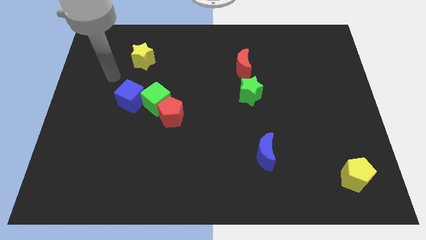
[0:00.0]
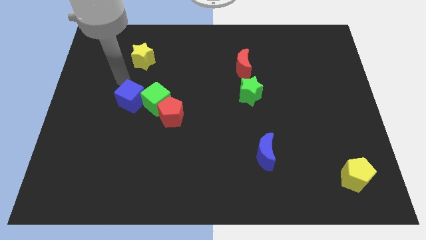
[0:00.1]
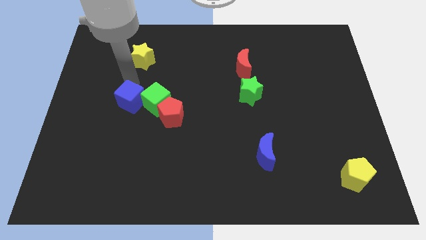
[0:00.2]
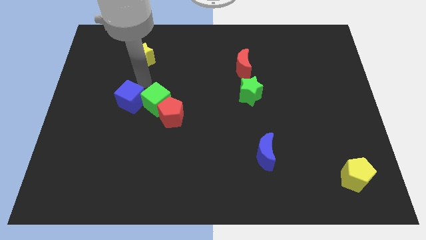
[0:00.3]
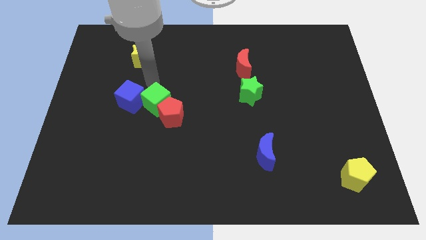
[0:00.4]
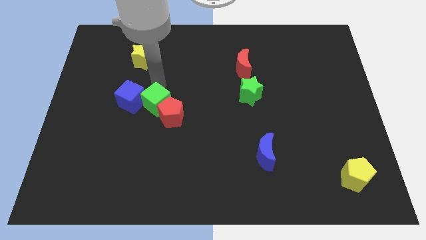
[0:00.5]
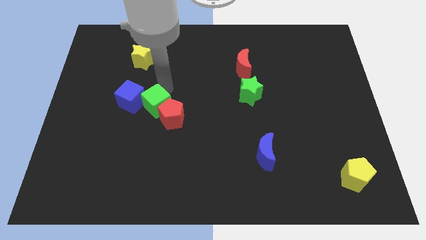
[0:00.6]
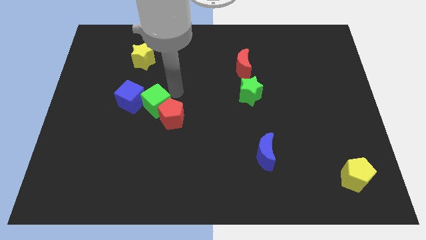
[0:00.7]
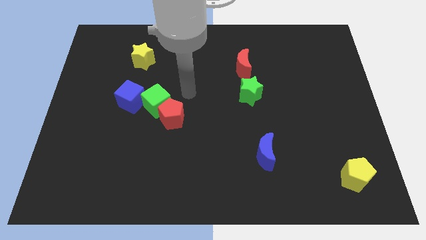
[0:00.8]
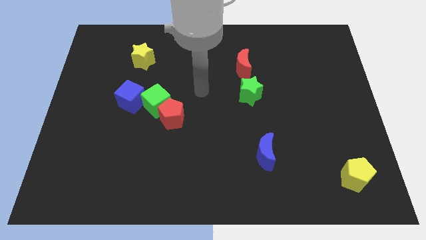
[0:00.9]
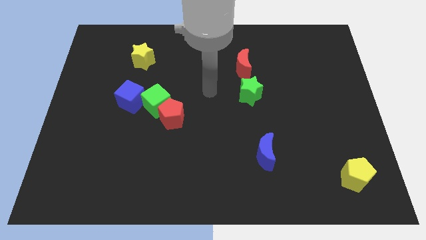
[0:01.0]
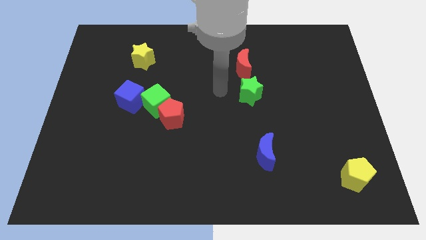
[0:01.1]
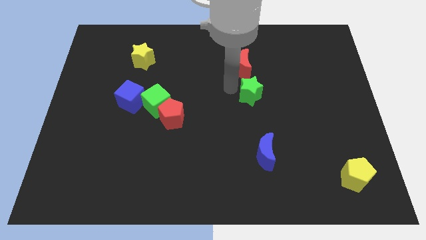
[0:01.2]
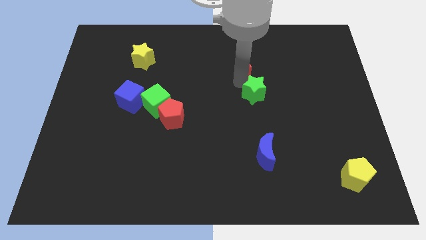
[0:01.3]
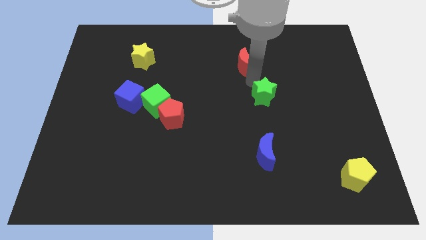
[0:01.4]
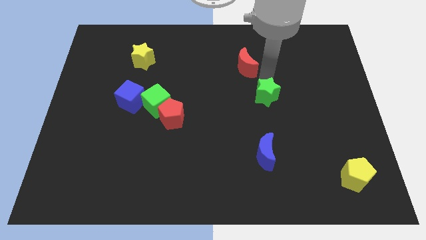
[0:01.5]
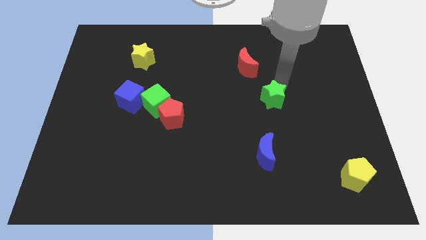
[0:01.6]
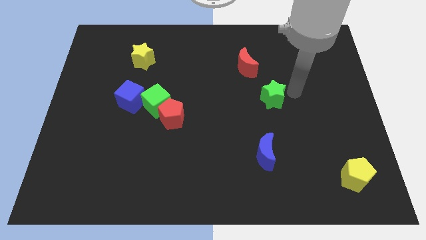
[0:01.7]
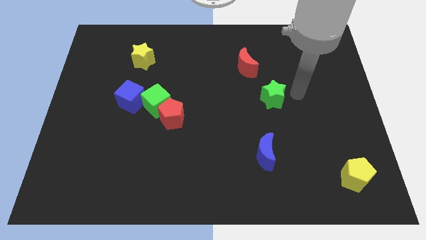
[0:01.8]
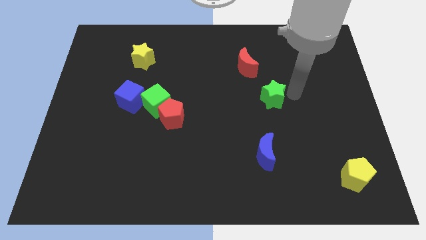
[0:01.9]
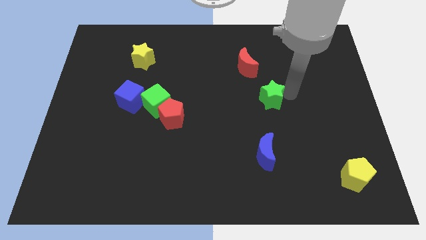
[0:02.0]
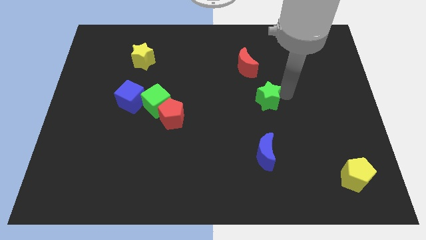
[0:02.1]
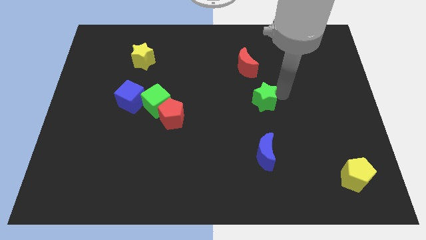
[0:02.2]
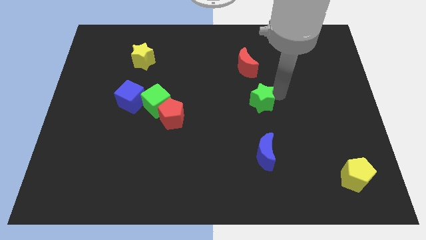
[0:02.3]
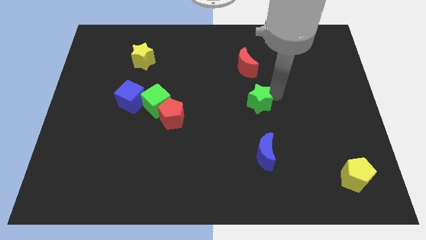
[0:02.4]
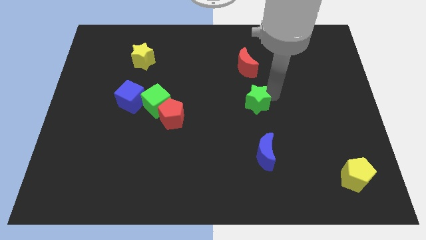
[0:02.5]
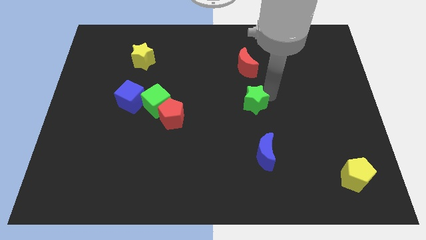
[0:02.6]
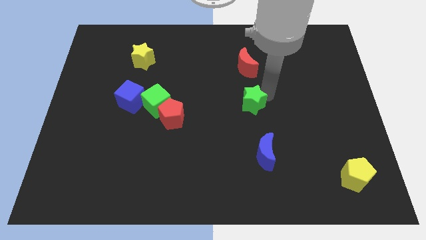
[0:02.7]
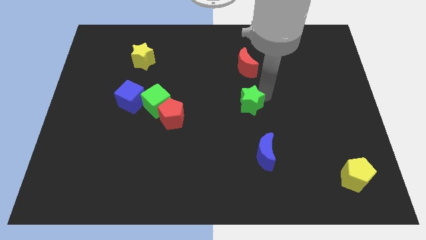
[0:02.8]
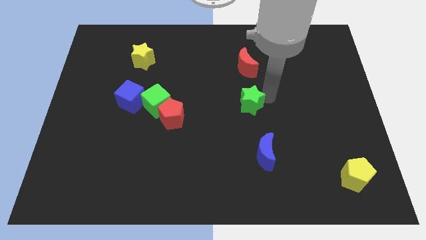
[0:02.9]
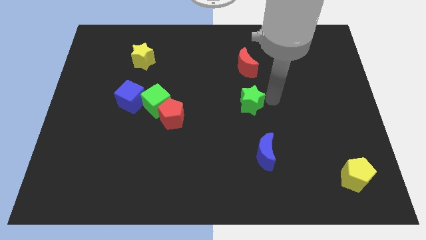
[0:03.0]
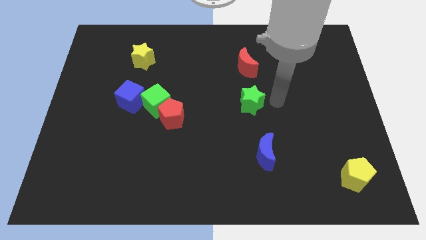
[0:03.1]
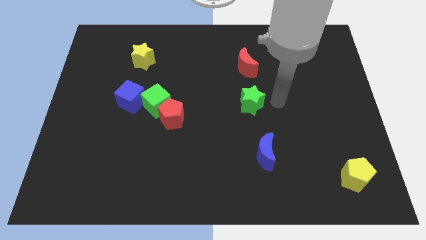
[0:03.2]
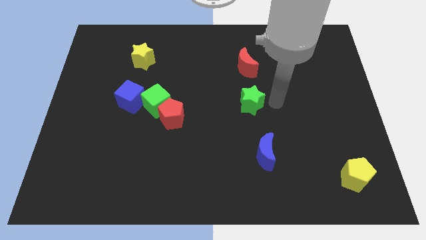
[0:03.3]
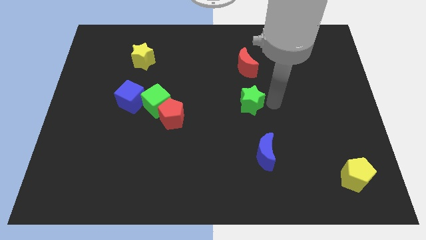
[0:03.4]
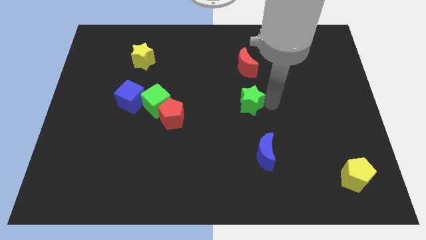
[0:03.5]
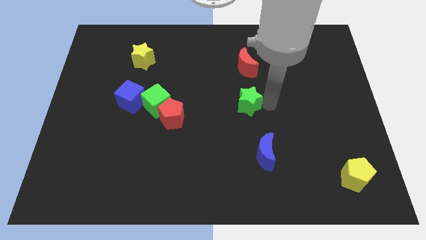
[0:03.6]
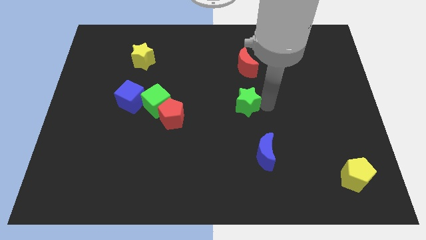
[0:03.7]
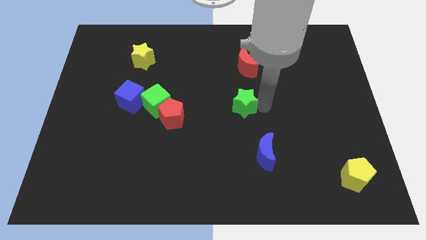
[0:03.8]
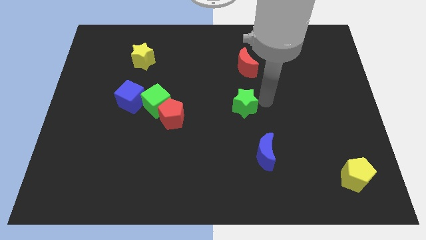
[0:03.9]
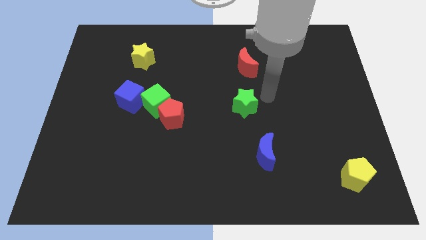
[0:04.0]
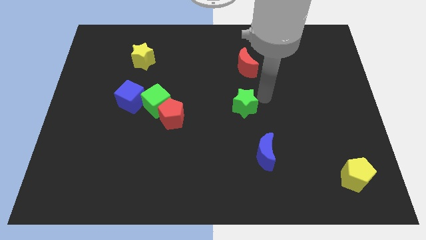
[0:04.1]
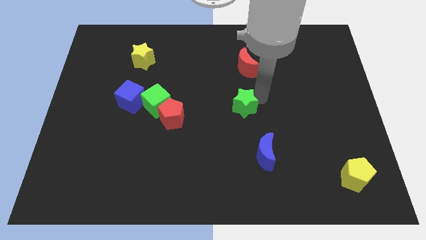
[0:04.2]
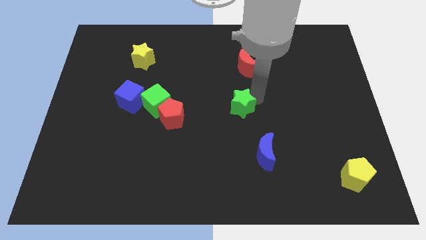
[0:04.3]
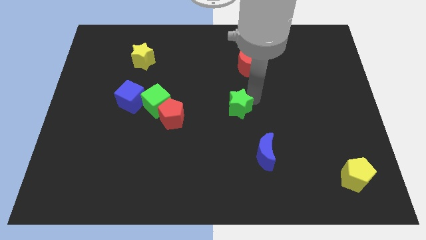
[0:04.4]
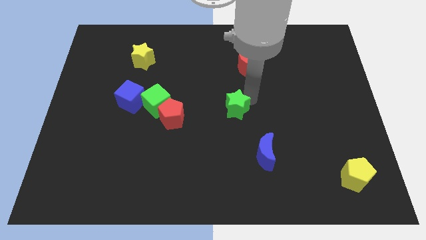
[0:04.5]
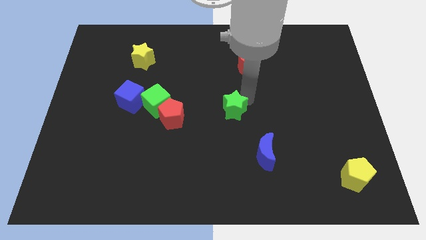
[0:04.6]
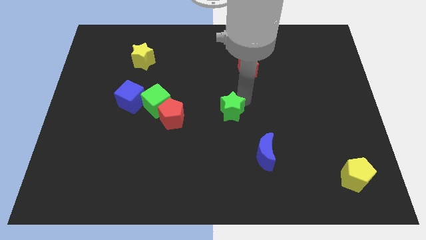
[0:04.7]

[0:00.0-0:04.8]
slide the green star down and then to the left a little

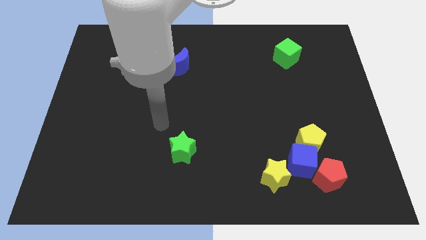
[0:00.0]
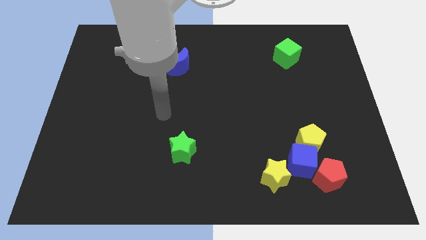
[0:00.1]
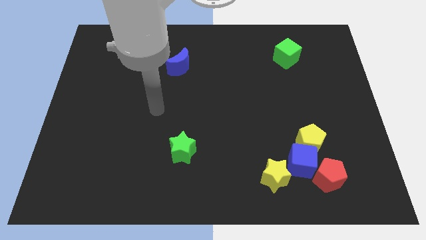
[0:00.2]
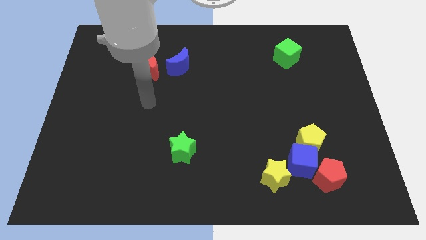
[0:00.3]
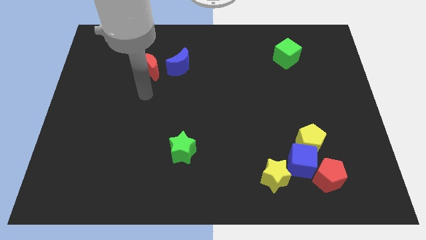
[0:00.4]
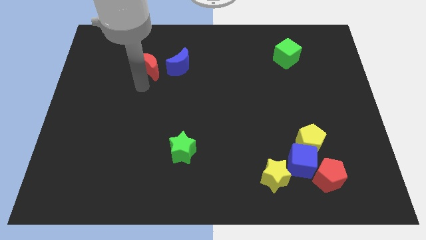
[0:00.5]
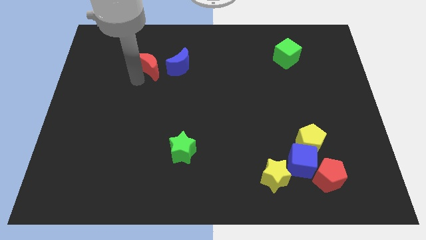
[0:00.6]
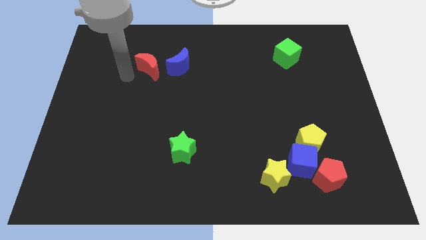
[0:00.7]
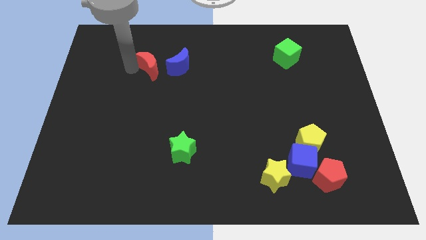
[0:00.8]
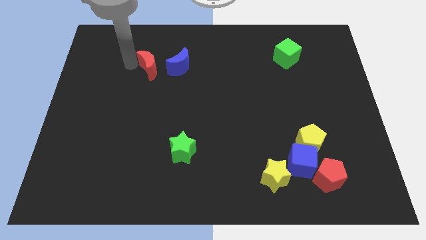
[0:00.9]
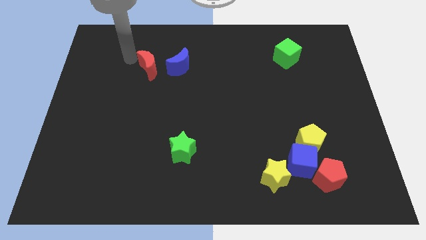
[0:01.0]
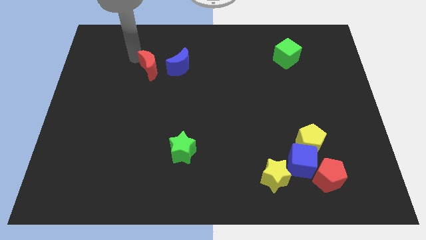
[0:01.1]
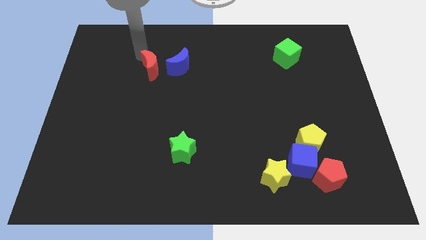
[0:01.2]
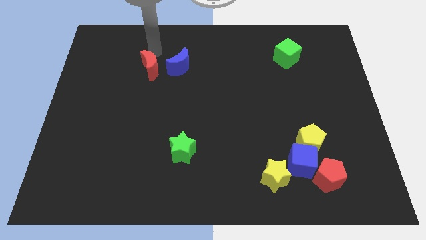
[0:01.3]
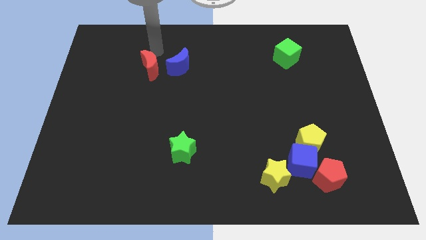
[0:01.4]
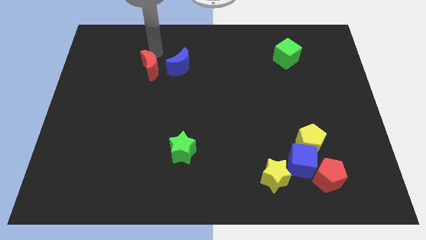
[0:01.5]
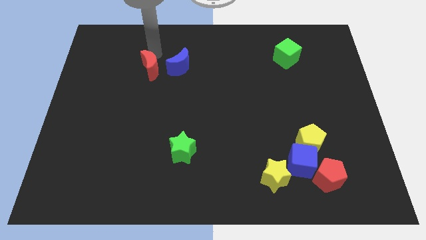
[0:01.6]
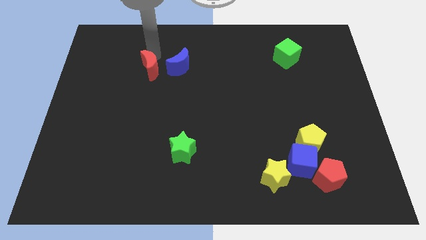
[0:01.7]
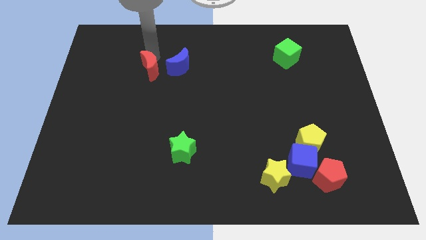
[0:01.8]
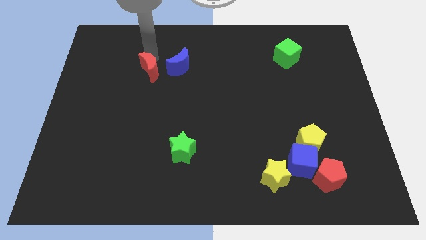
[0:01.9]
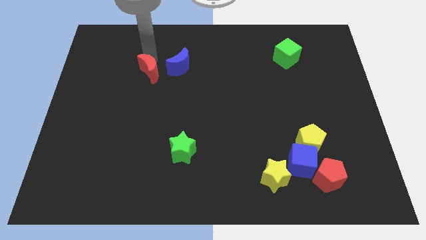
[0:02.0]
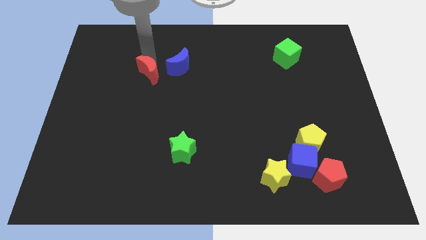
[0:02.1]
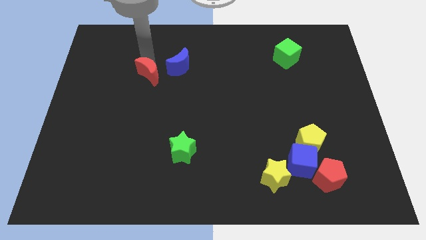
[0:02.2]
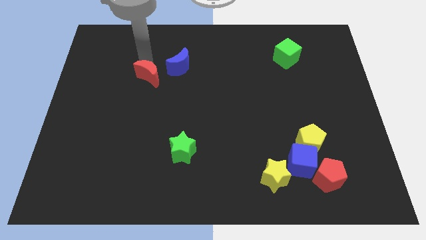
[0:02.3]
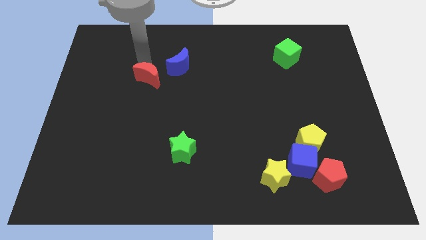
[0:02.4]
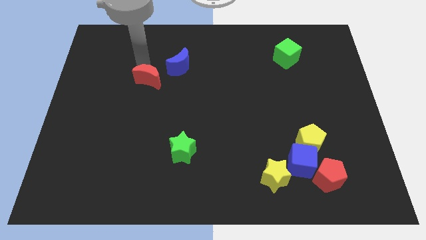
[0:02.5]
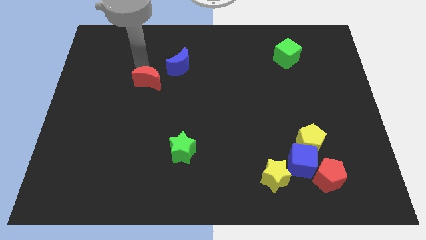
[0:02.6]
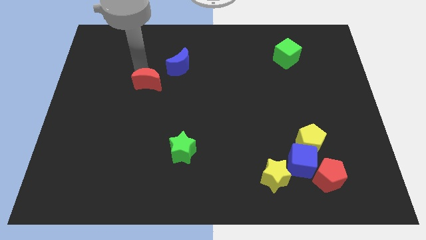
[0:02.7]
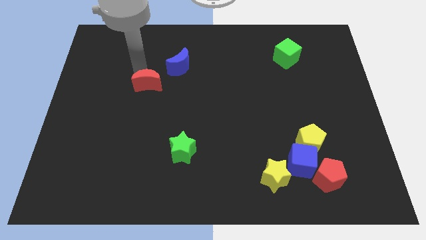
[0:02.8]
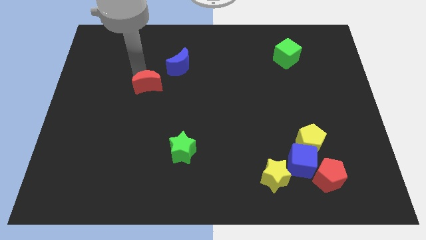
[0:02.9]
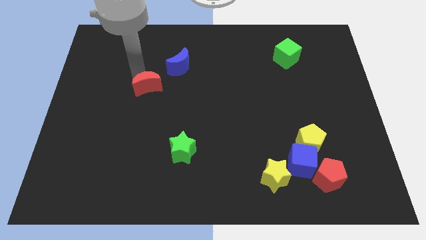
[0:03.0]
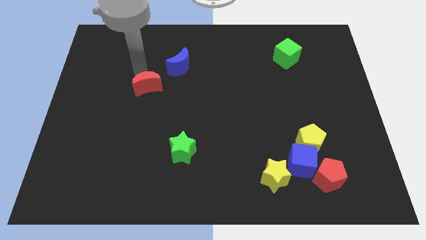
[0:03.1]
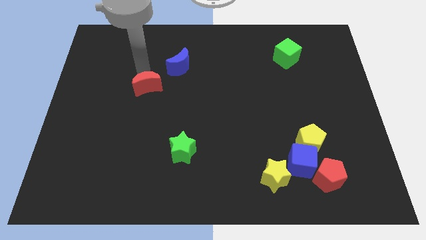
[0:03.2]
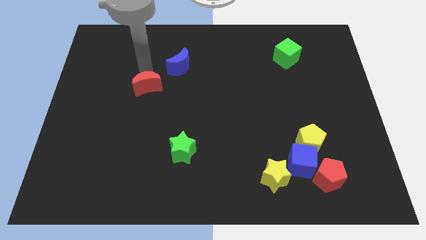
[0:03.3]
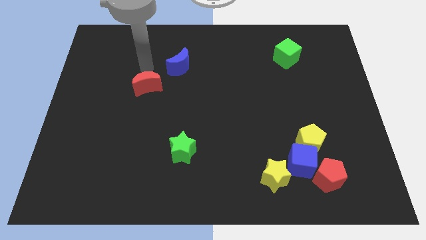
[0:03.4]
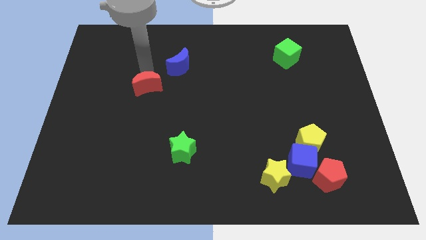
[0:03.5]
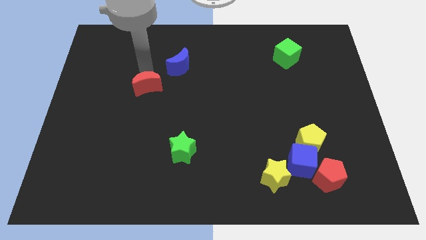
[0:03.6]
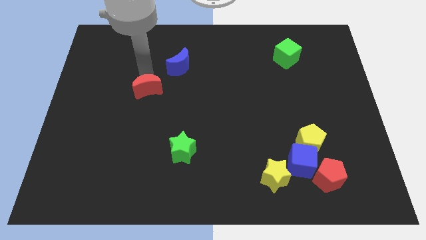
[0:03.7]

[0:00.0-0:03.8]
slide the red moon downwards slightly
